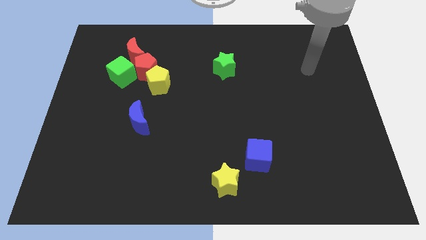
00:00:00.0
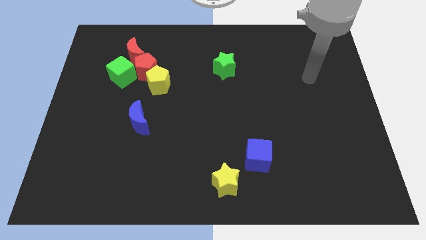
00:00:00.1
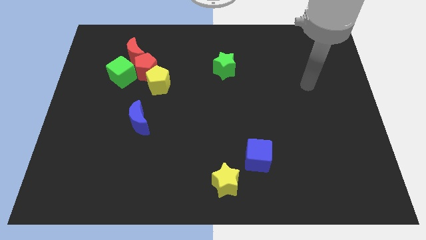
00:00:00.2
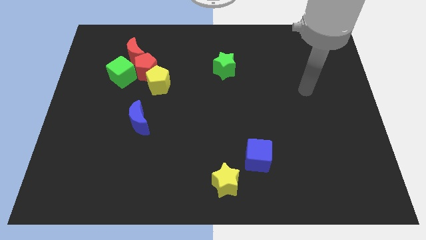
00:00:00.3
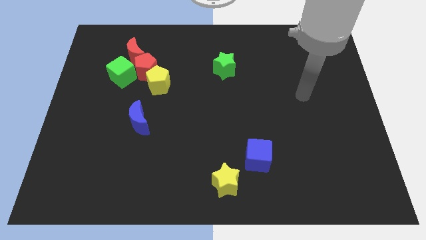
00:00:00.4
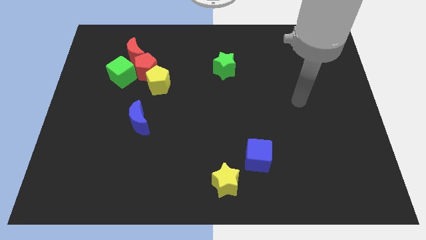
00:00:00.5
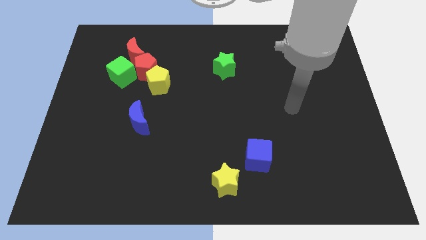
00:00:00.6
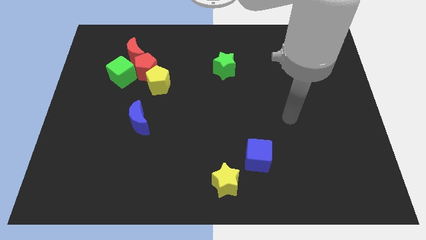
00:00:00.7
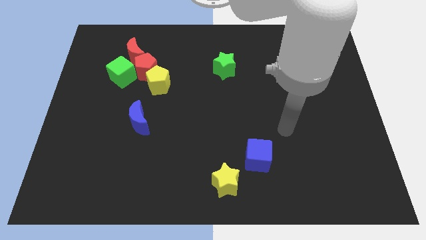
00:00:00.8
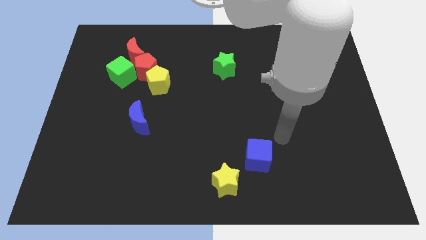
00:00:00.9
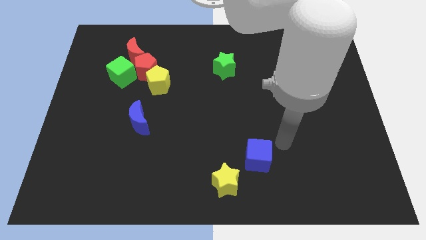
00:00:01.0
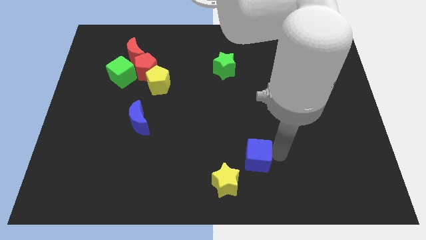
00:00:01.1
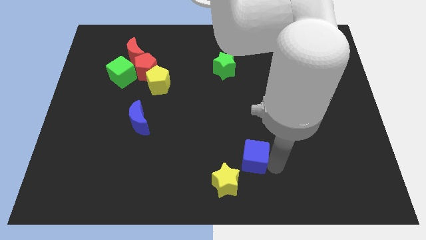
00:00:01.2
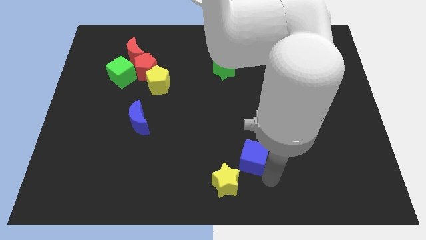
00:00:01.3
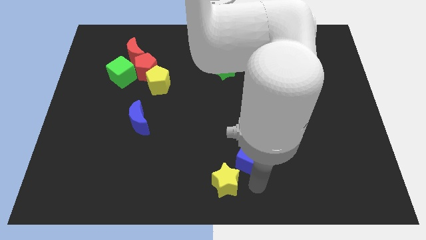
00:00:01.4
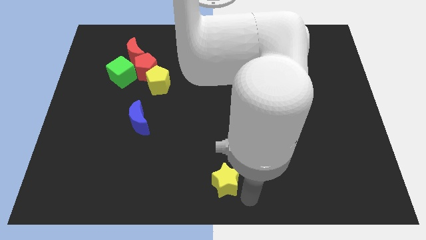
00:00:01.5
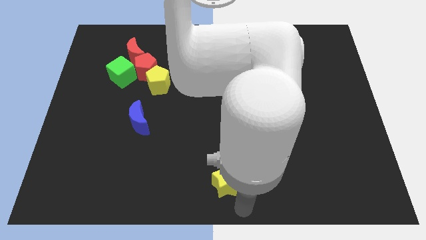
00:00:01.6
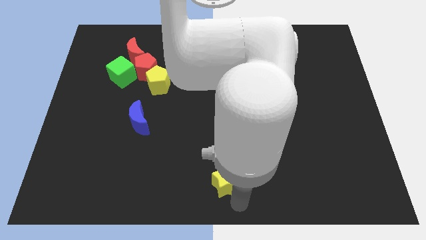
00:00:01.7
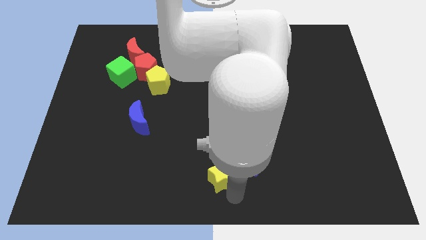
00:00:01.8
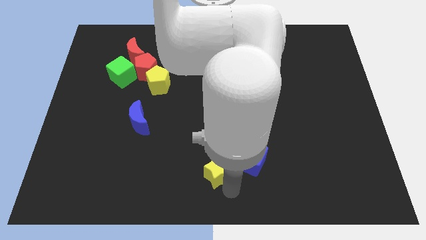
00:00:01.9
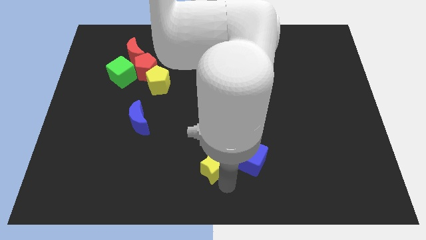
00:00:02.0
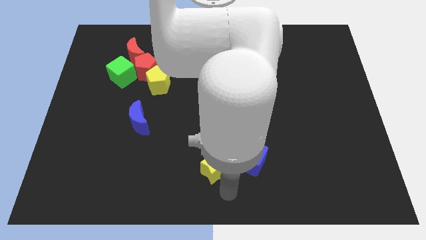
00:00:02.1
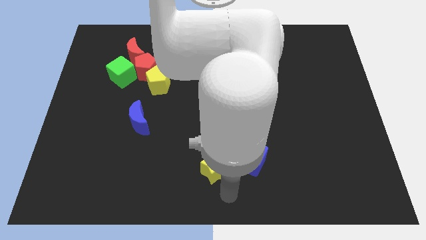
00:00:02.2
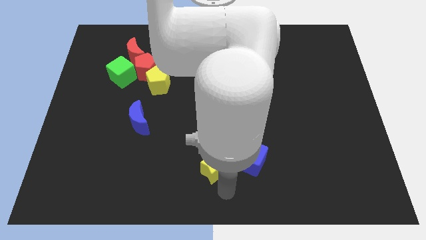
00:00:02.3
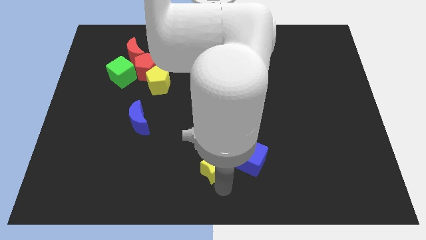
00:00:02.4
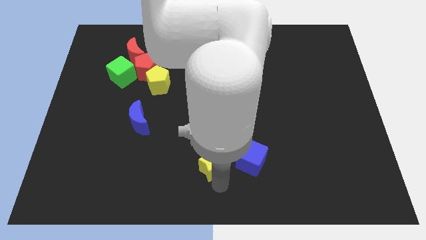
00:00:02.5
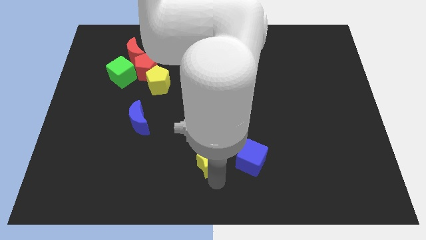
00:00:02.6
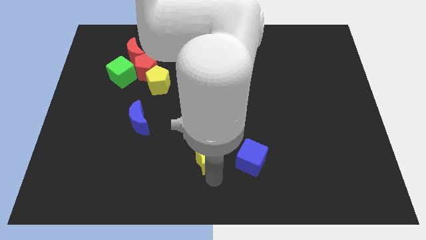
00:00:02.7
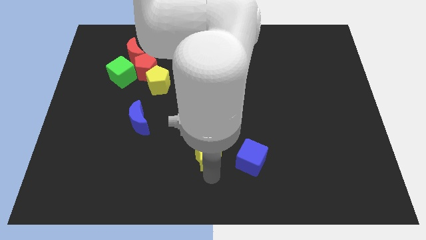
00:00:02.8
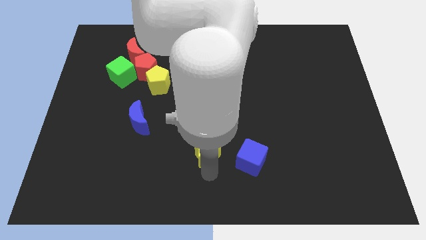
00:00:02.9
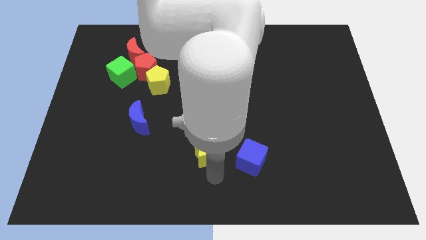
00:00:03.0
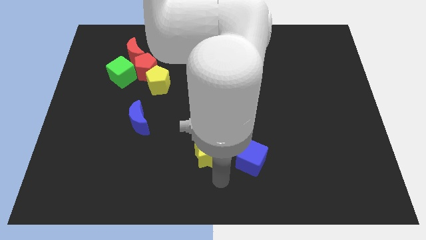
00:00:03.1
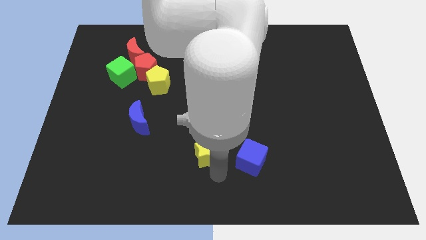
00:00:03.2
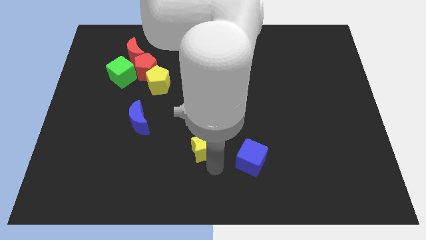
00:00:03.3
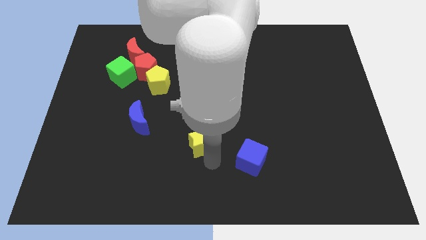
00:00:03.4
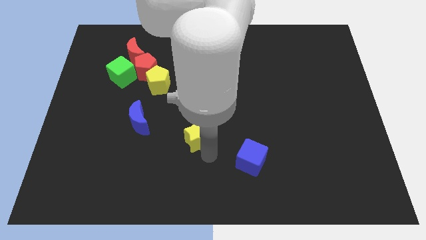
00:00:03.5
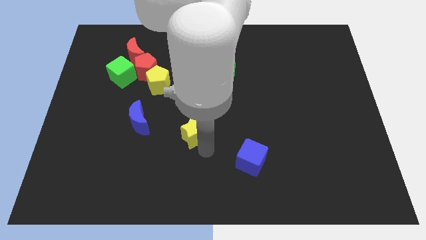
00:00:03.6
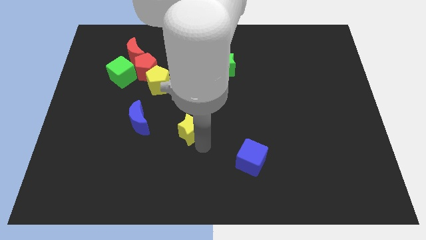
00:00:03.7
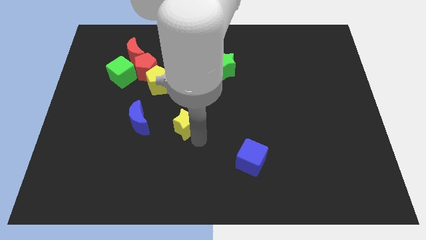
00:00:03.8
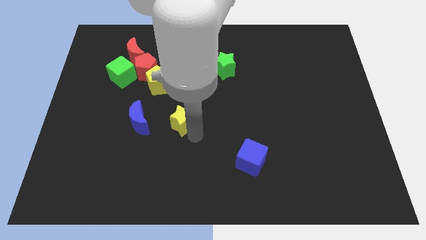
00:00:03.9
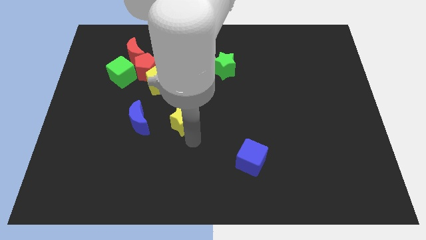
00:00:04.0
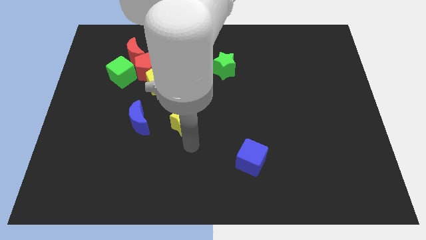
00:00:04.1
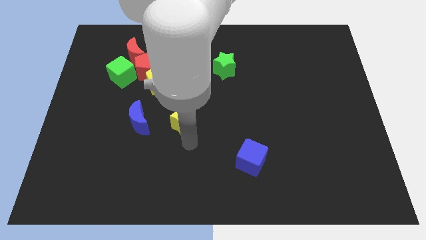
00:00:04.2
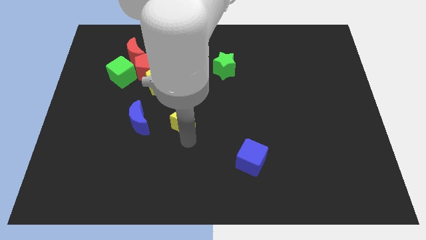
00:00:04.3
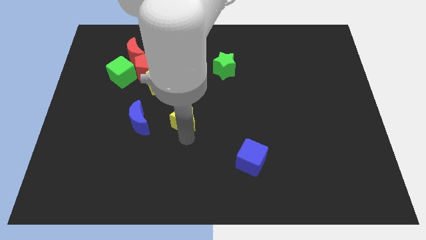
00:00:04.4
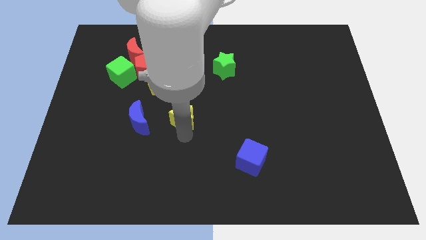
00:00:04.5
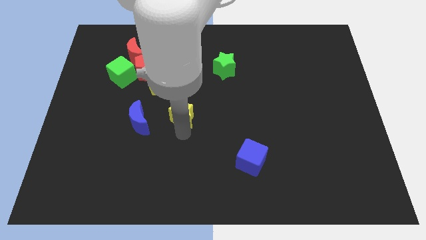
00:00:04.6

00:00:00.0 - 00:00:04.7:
slide the yellow star to the bottom right of the yellow pentagon

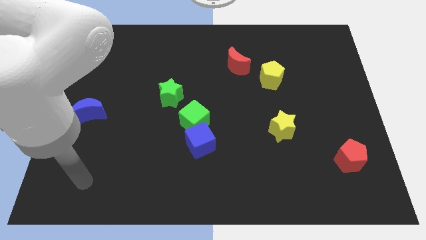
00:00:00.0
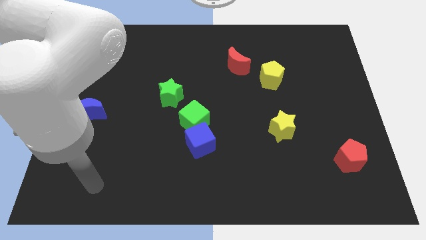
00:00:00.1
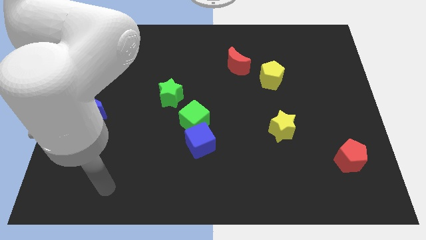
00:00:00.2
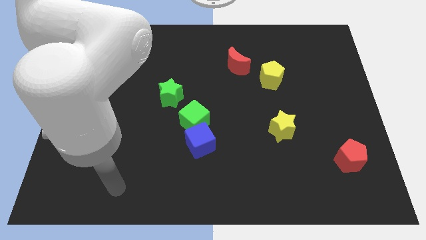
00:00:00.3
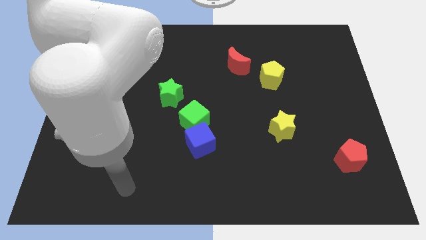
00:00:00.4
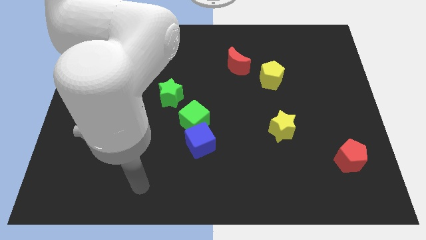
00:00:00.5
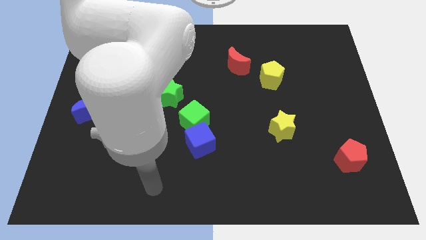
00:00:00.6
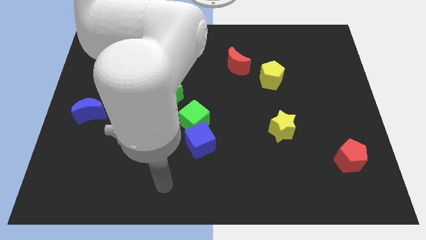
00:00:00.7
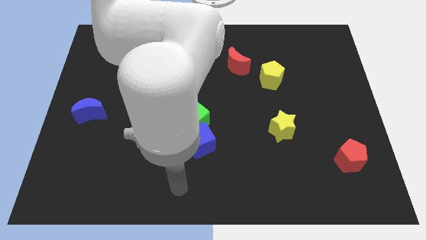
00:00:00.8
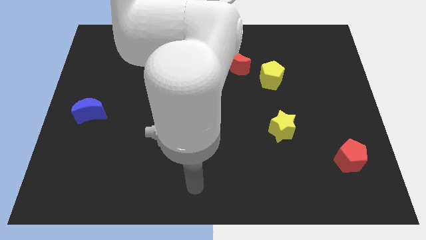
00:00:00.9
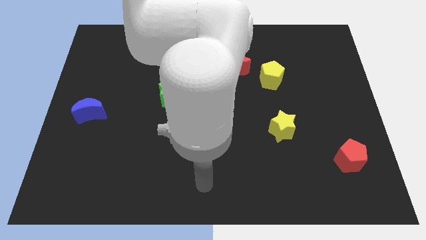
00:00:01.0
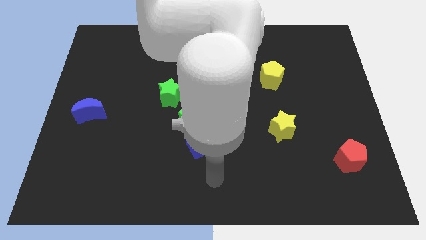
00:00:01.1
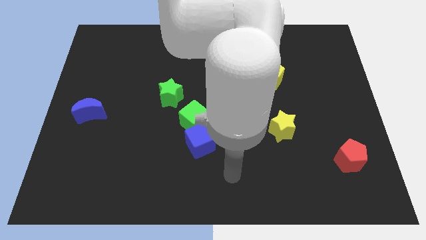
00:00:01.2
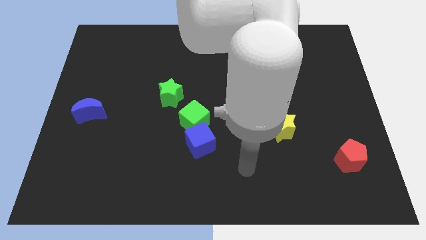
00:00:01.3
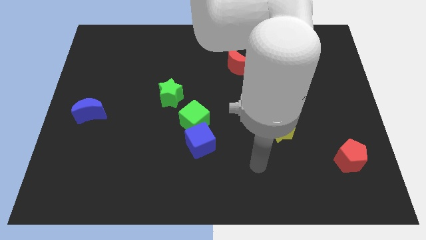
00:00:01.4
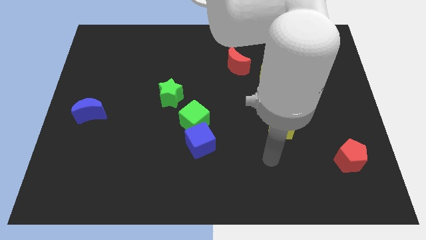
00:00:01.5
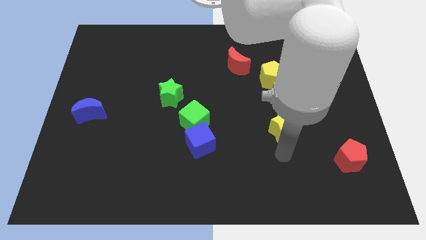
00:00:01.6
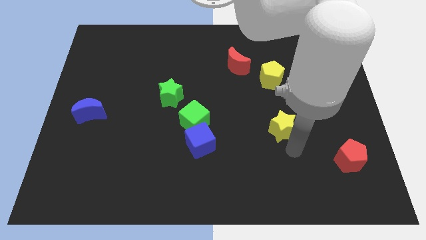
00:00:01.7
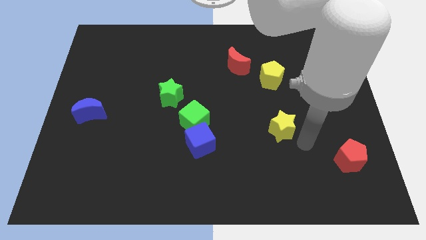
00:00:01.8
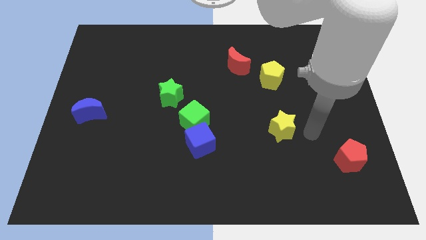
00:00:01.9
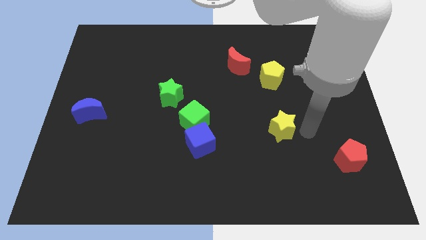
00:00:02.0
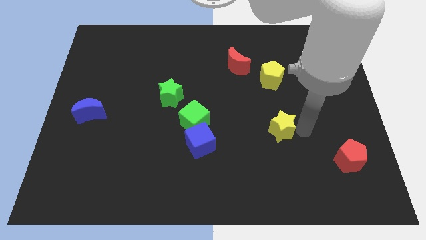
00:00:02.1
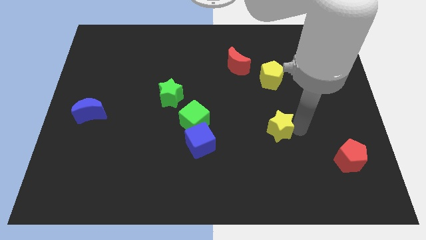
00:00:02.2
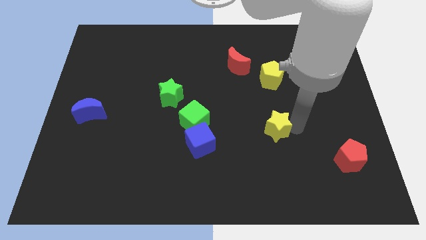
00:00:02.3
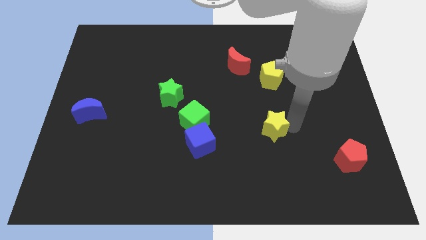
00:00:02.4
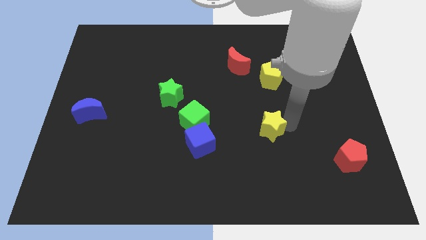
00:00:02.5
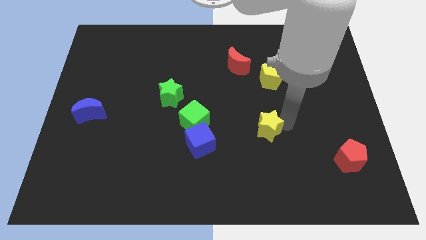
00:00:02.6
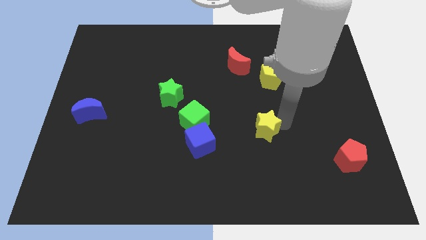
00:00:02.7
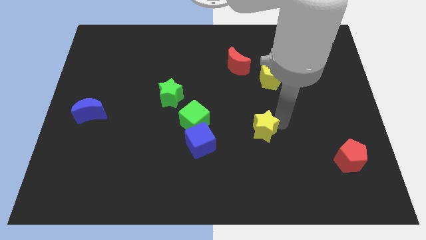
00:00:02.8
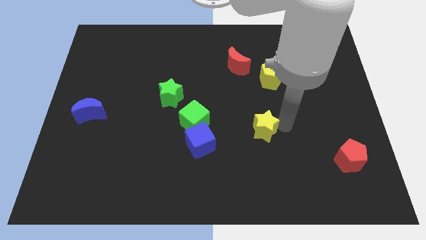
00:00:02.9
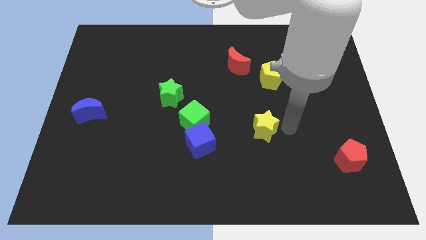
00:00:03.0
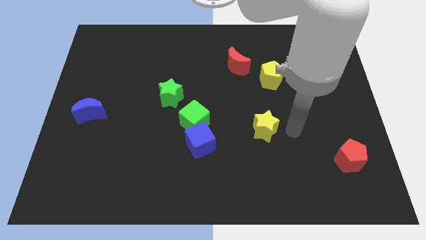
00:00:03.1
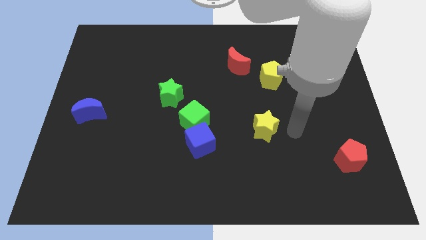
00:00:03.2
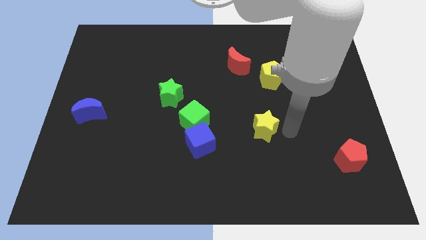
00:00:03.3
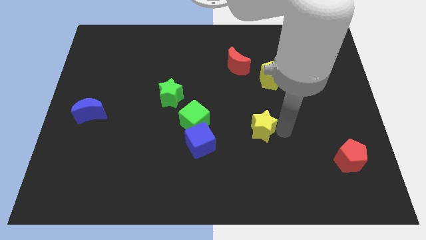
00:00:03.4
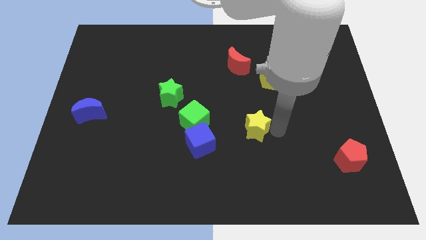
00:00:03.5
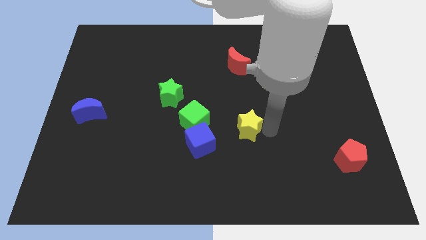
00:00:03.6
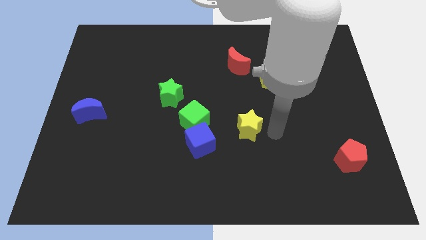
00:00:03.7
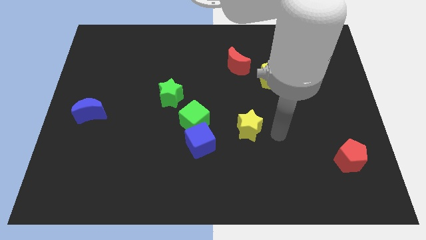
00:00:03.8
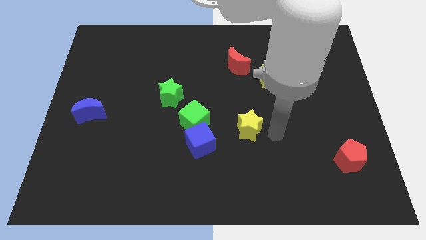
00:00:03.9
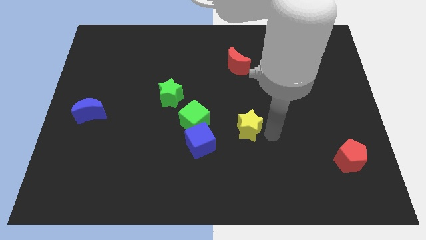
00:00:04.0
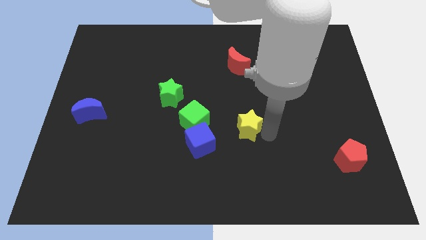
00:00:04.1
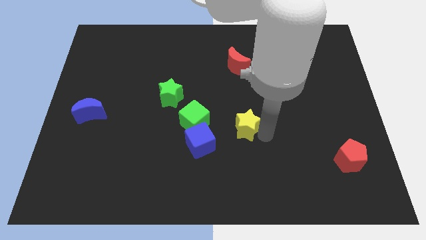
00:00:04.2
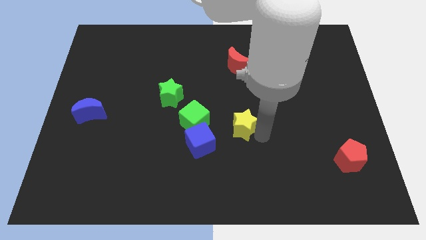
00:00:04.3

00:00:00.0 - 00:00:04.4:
move the yellow star diagonally up and to the right of the blue cube
